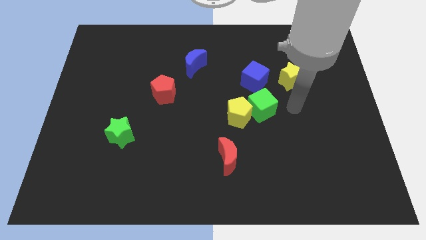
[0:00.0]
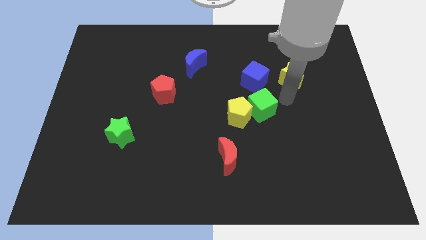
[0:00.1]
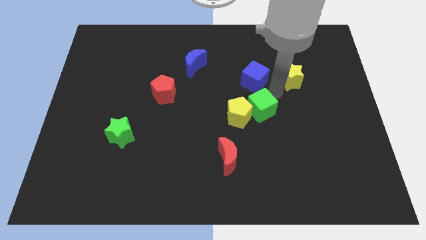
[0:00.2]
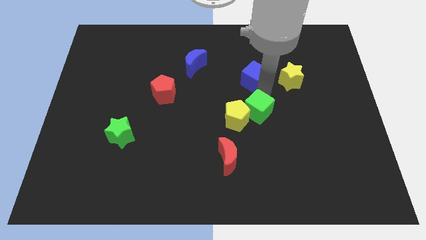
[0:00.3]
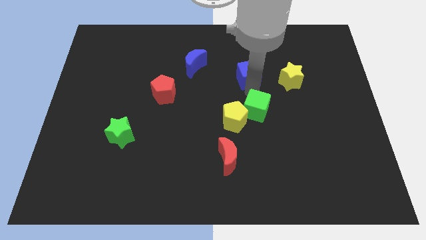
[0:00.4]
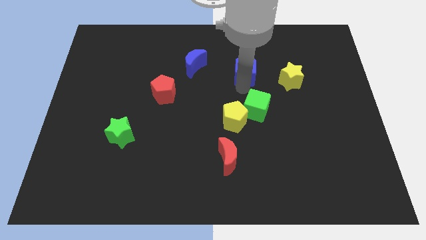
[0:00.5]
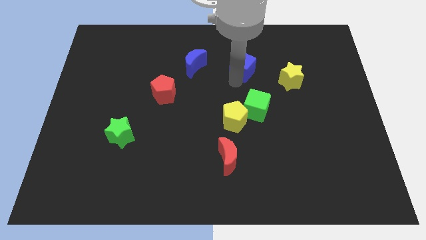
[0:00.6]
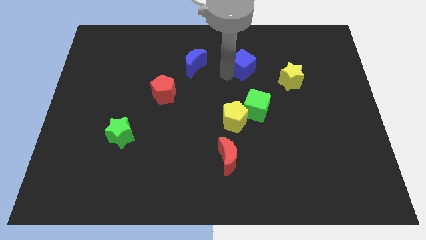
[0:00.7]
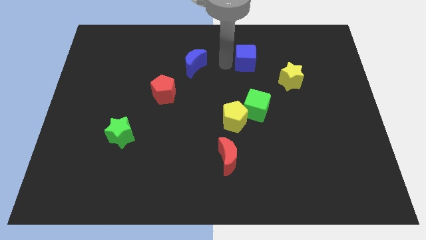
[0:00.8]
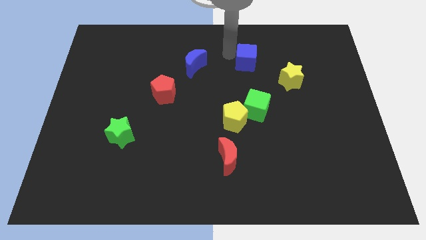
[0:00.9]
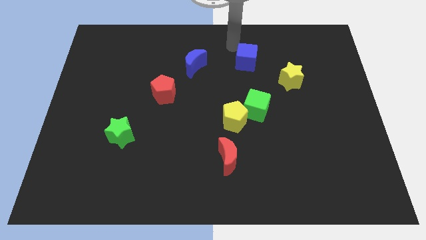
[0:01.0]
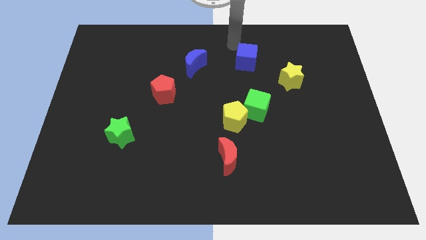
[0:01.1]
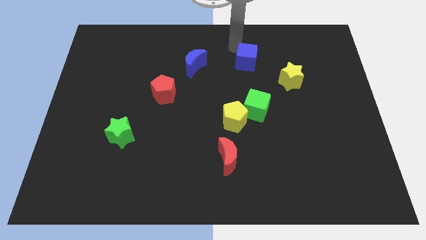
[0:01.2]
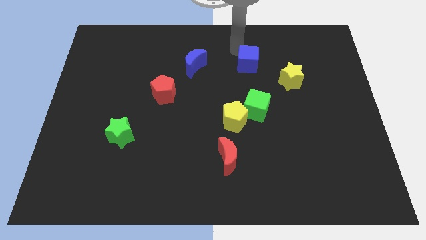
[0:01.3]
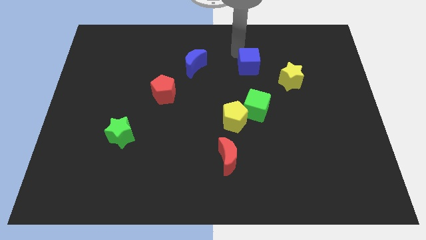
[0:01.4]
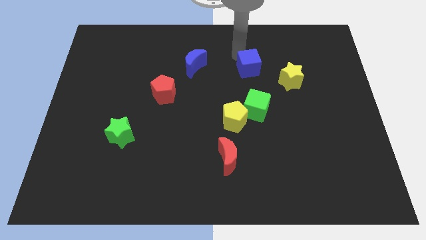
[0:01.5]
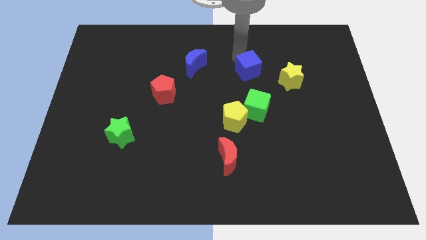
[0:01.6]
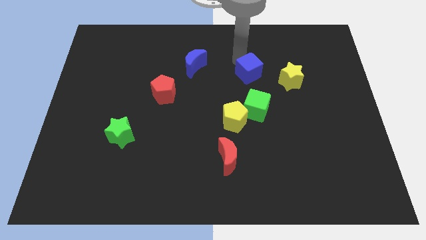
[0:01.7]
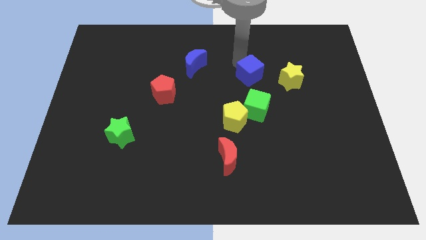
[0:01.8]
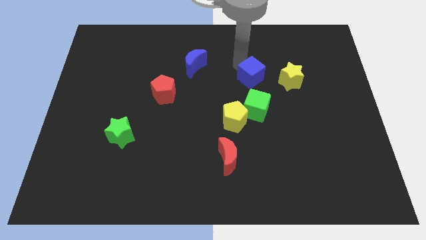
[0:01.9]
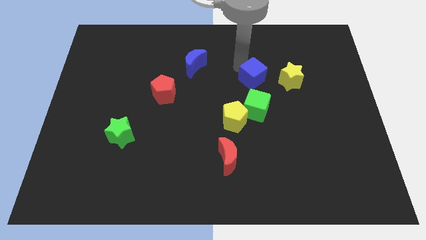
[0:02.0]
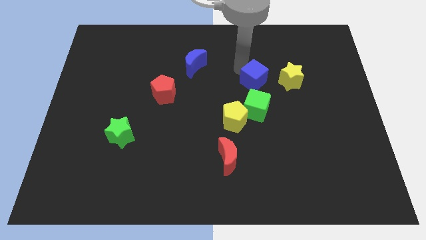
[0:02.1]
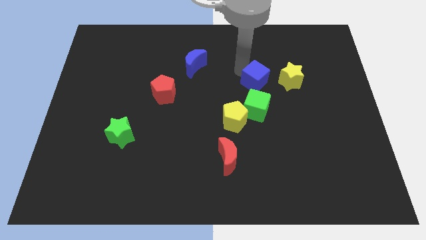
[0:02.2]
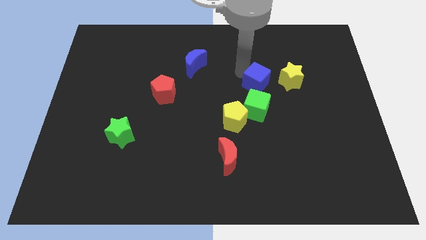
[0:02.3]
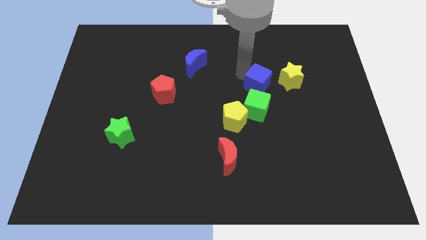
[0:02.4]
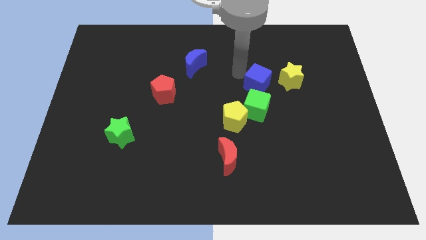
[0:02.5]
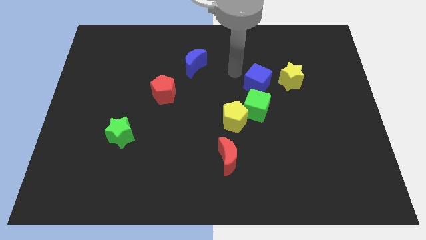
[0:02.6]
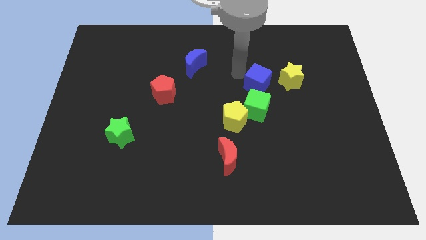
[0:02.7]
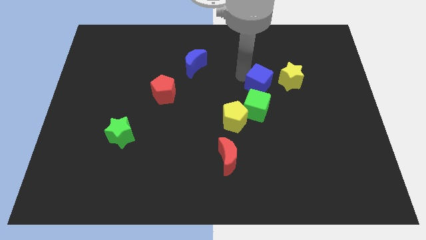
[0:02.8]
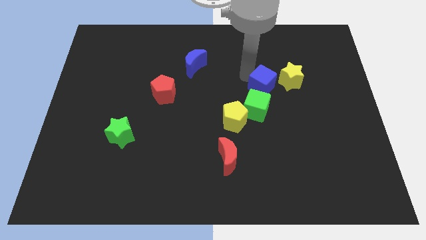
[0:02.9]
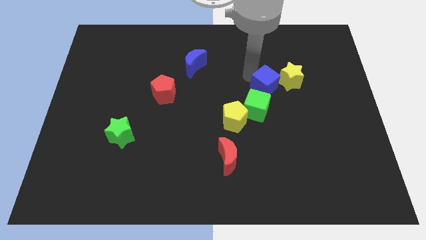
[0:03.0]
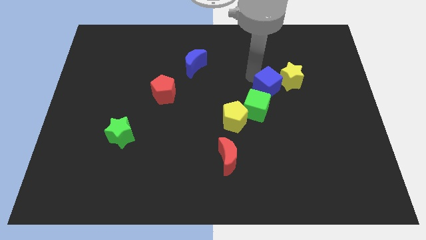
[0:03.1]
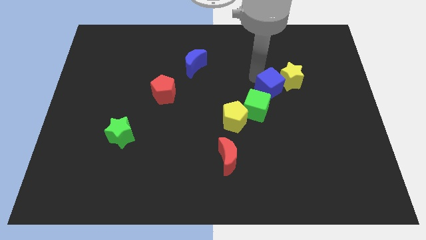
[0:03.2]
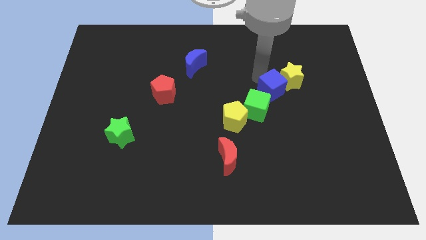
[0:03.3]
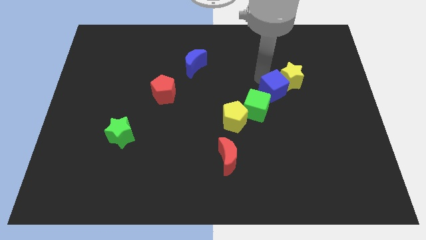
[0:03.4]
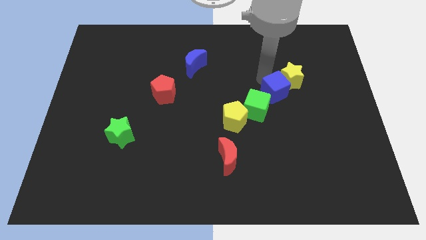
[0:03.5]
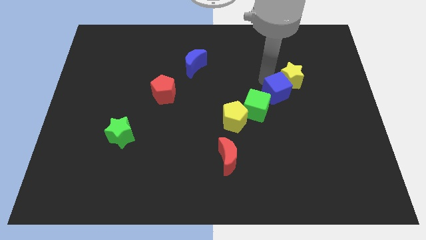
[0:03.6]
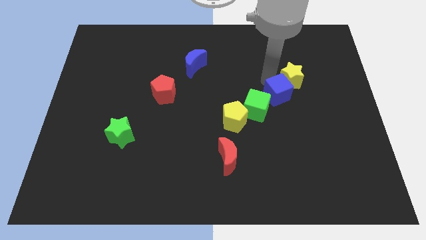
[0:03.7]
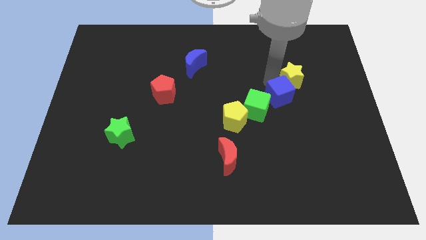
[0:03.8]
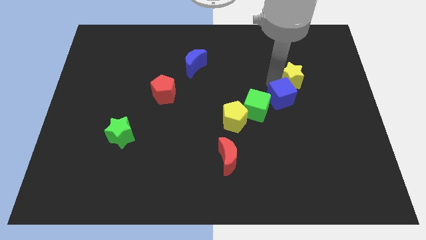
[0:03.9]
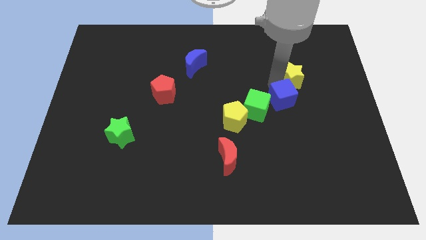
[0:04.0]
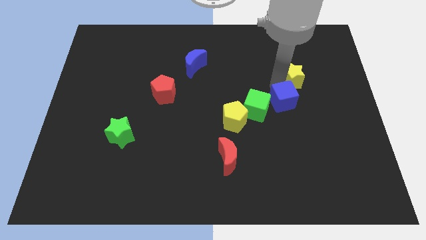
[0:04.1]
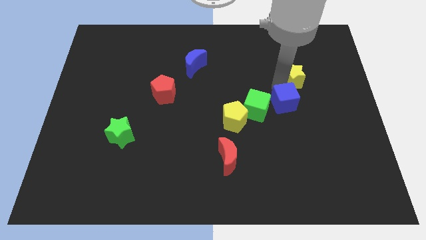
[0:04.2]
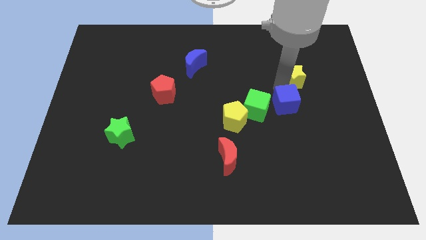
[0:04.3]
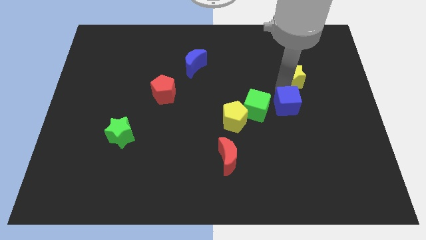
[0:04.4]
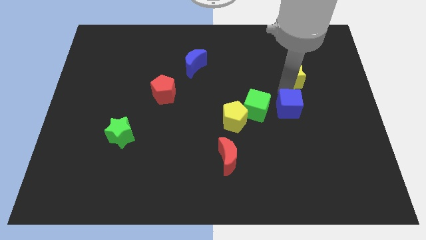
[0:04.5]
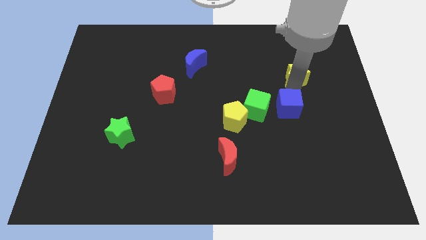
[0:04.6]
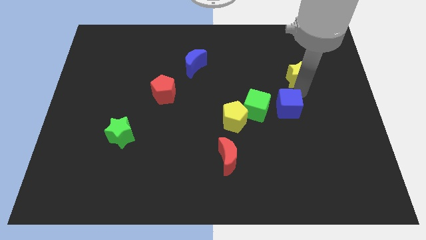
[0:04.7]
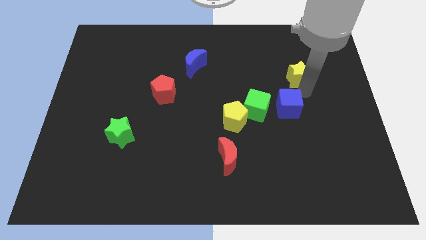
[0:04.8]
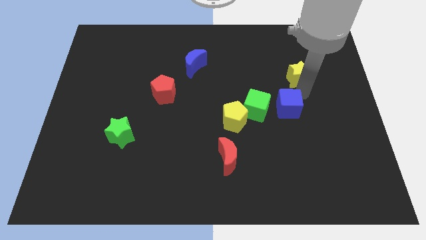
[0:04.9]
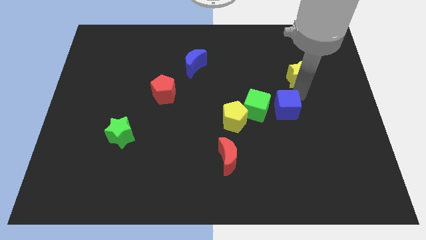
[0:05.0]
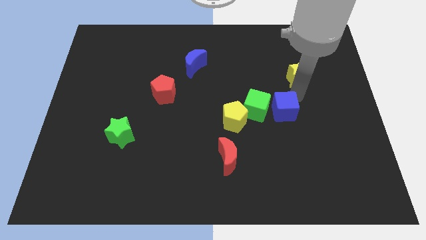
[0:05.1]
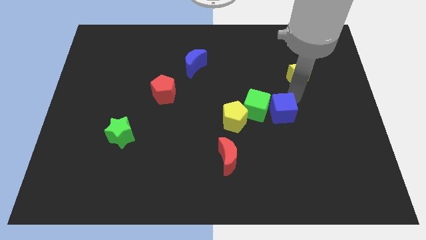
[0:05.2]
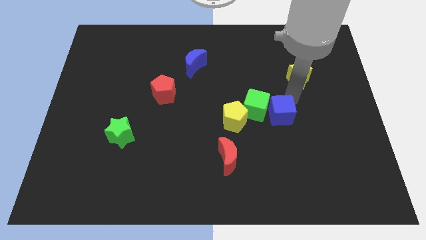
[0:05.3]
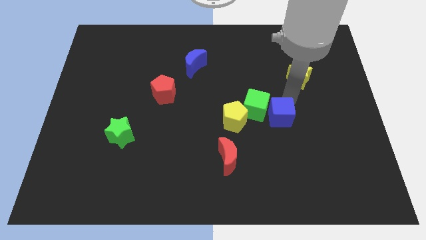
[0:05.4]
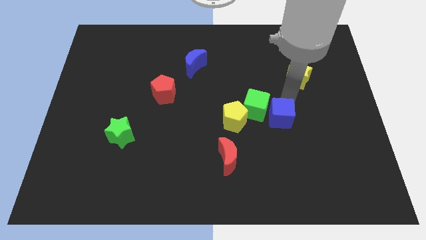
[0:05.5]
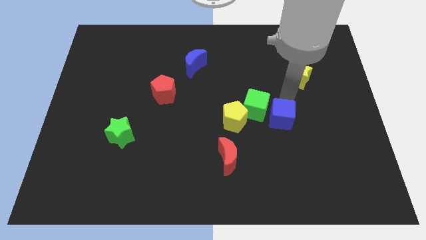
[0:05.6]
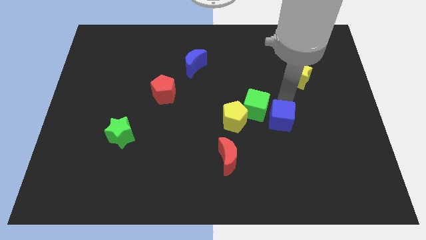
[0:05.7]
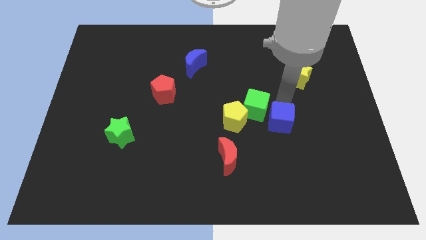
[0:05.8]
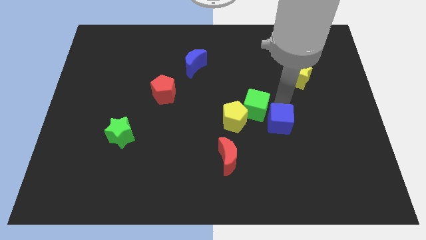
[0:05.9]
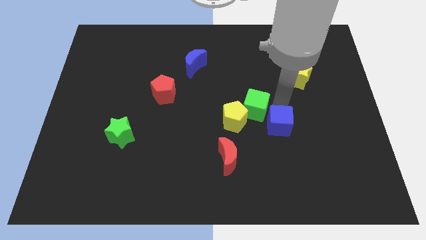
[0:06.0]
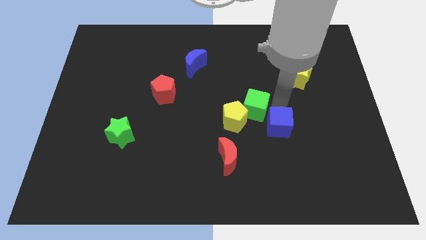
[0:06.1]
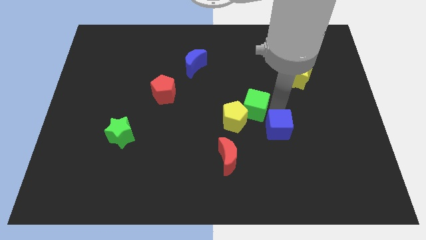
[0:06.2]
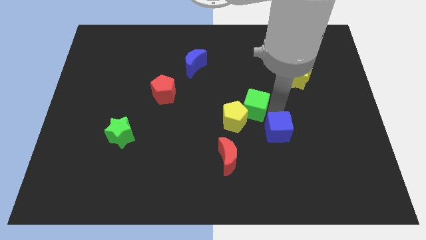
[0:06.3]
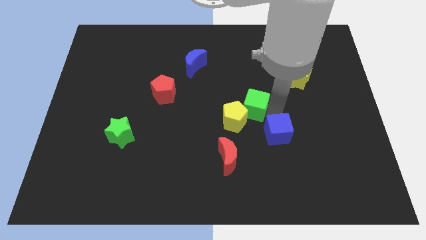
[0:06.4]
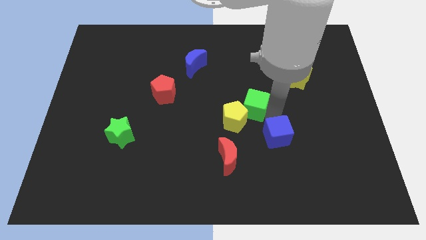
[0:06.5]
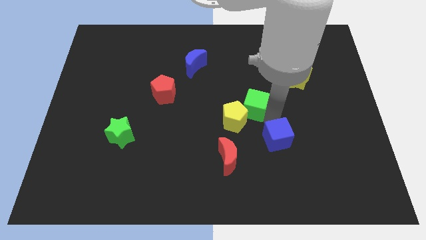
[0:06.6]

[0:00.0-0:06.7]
move the blue cube to the top right side of the red moon

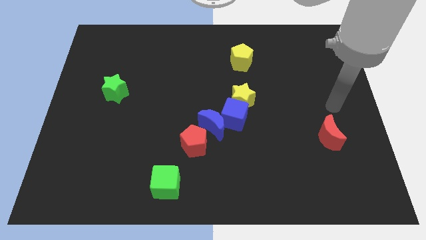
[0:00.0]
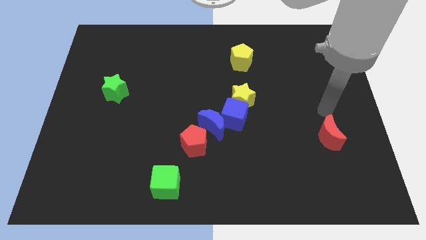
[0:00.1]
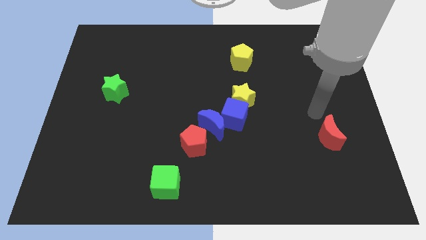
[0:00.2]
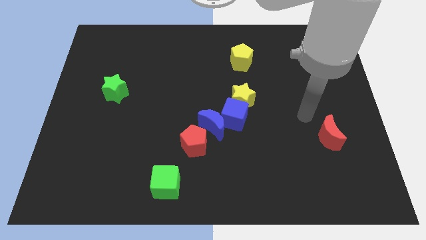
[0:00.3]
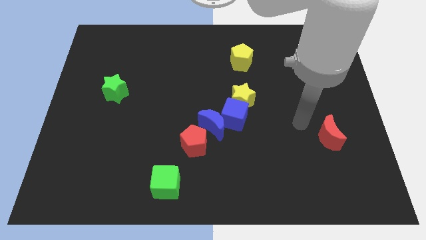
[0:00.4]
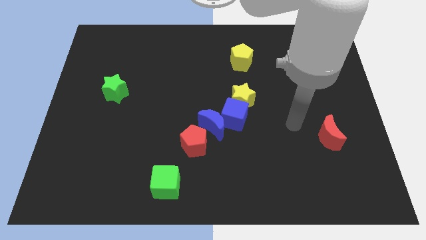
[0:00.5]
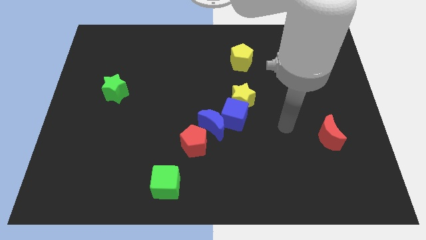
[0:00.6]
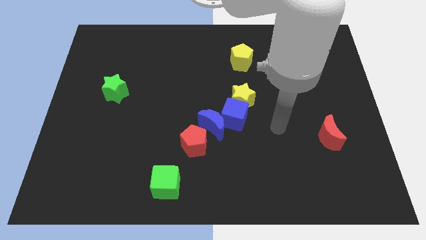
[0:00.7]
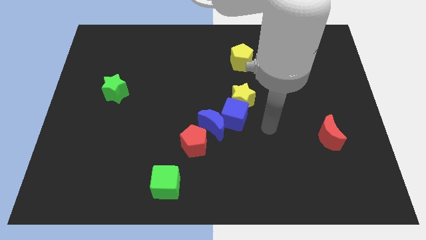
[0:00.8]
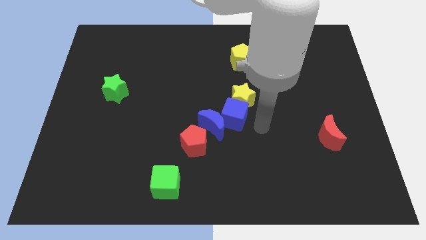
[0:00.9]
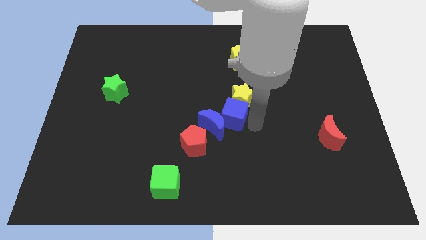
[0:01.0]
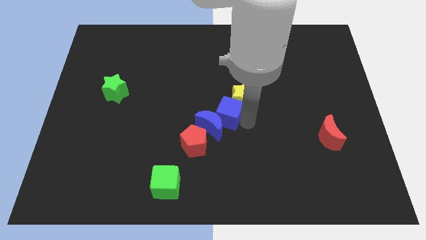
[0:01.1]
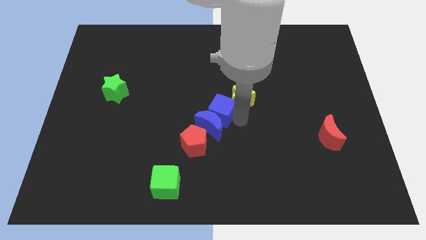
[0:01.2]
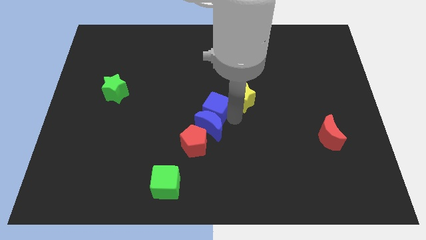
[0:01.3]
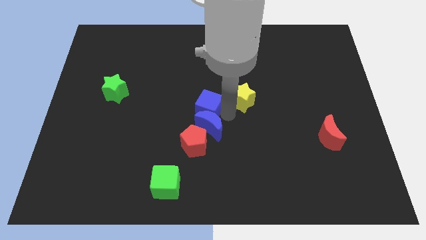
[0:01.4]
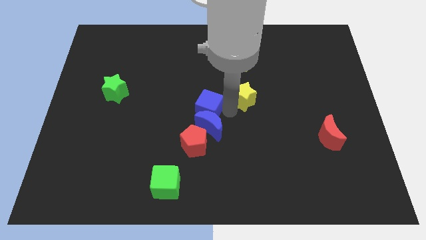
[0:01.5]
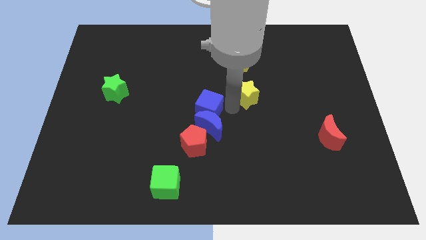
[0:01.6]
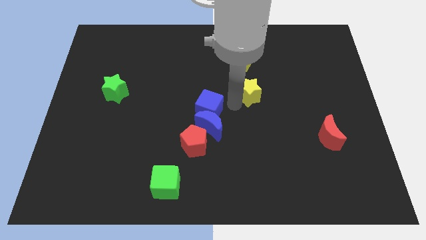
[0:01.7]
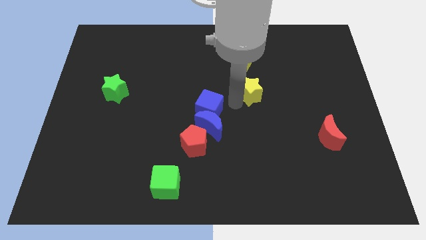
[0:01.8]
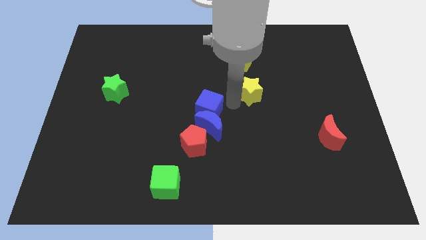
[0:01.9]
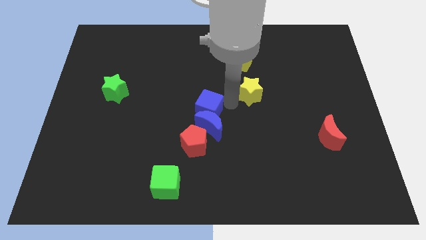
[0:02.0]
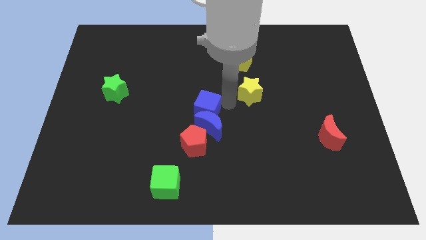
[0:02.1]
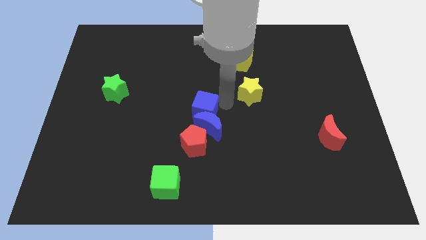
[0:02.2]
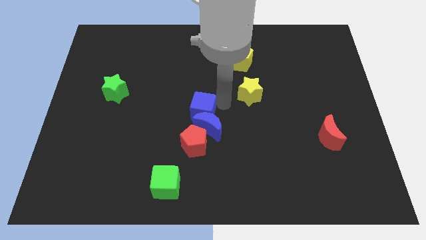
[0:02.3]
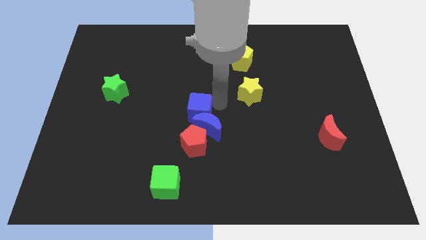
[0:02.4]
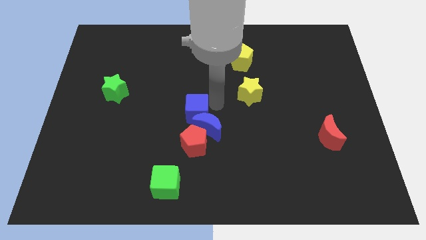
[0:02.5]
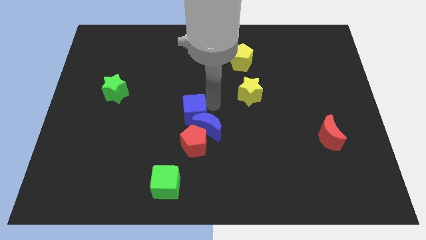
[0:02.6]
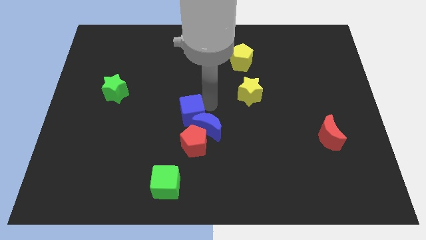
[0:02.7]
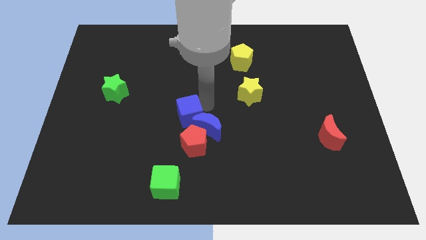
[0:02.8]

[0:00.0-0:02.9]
put the blue cube diagonally up and to the left of the red pentagon
